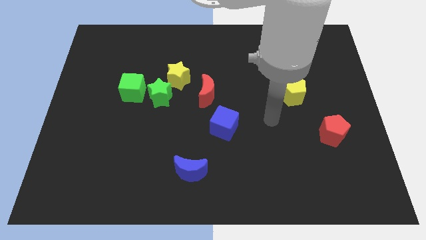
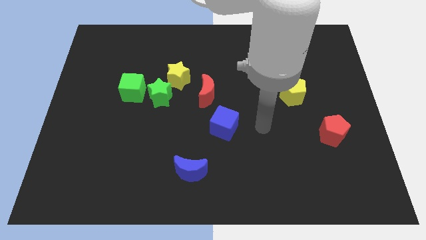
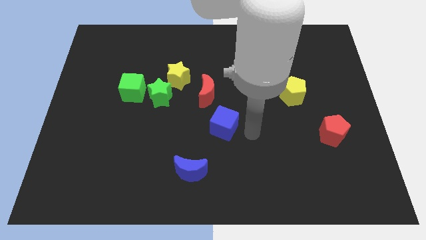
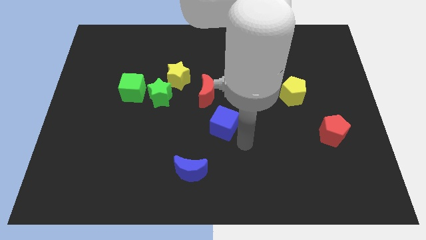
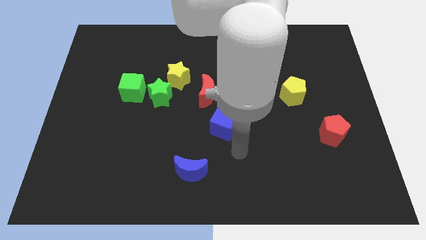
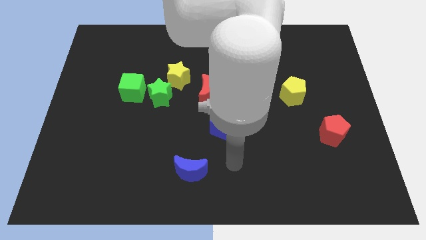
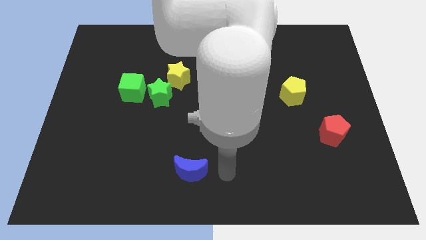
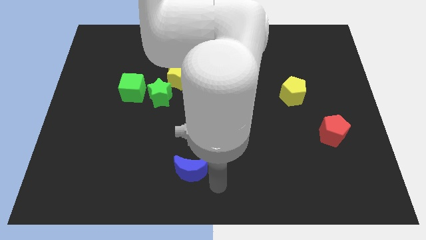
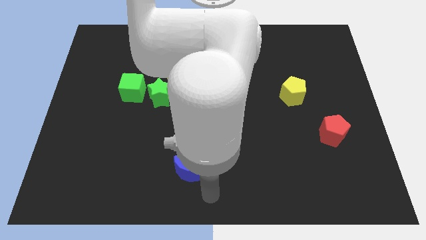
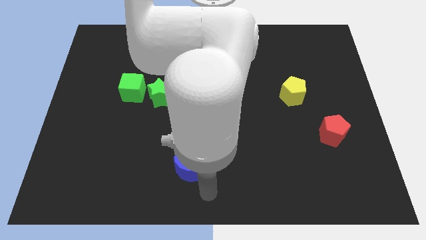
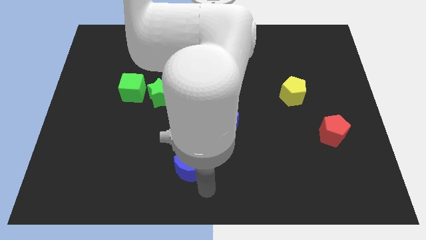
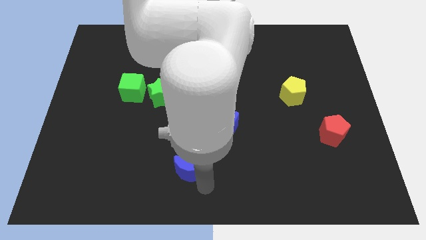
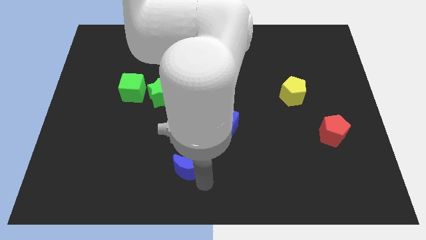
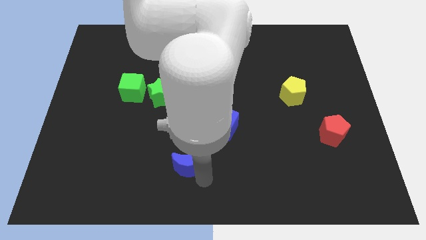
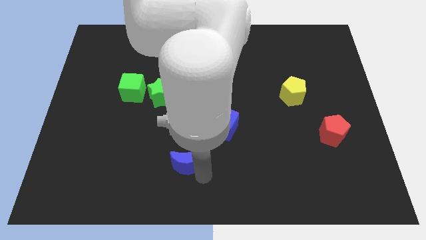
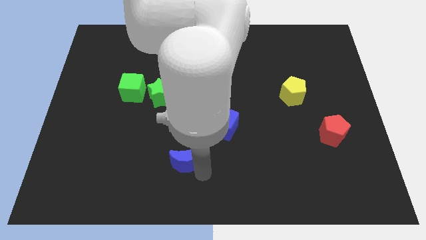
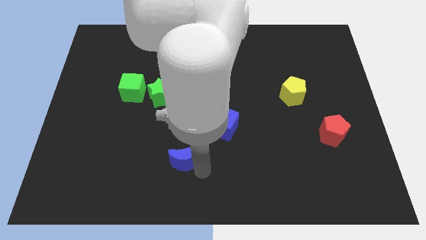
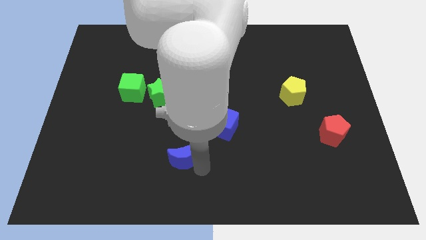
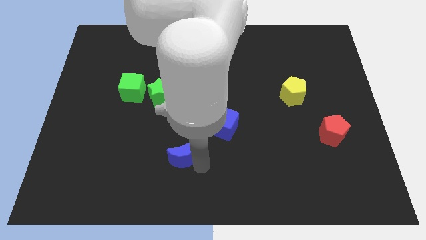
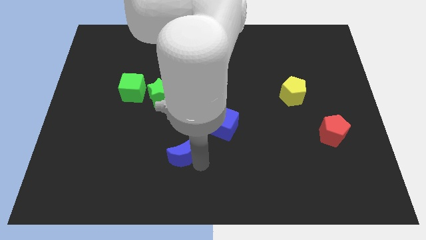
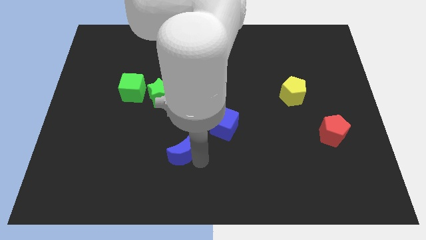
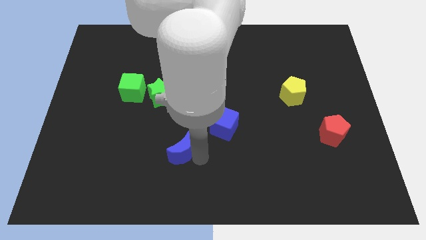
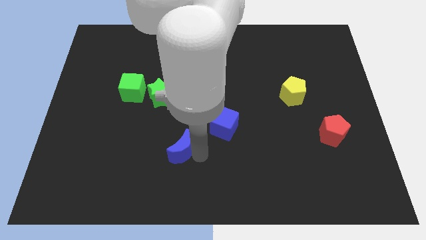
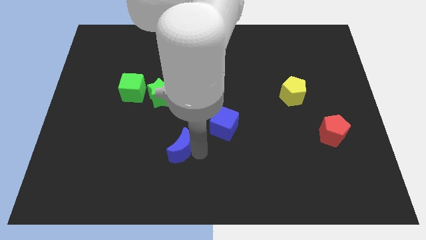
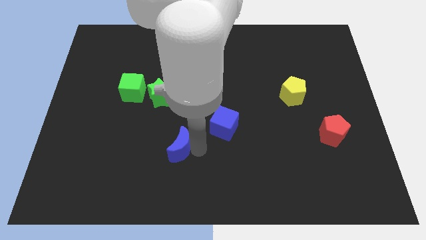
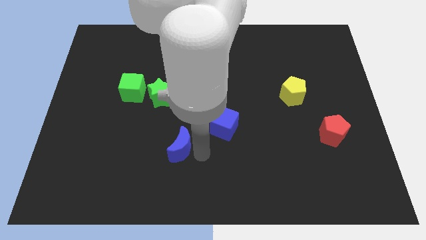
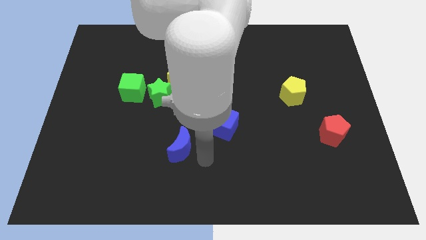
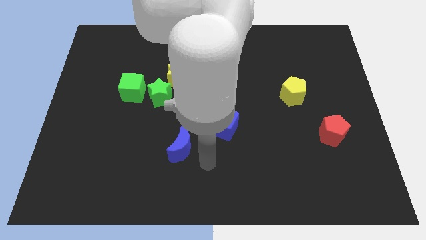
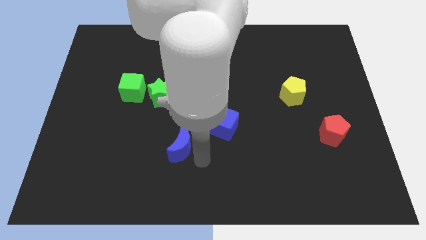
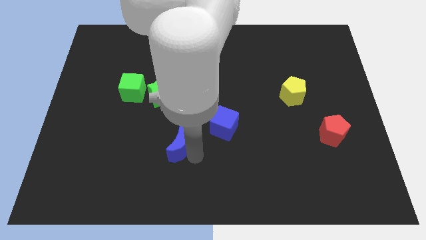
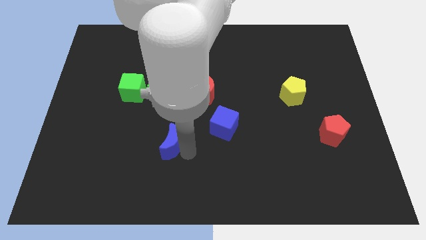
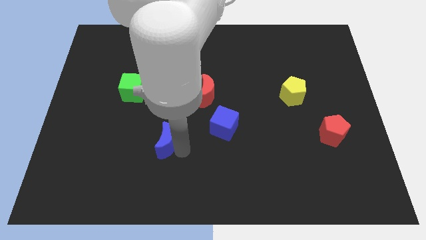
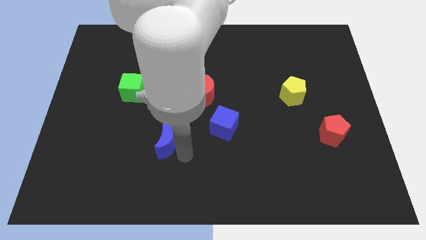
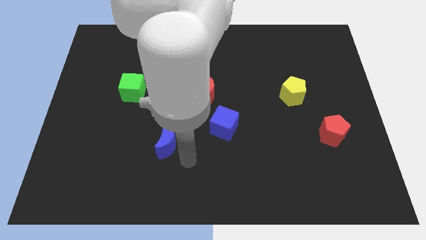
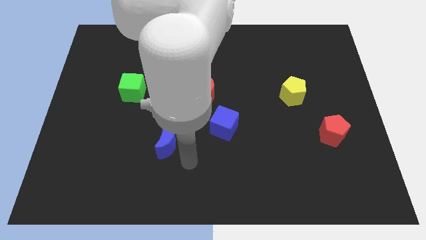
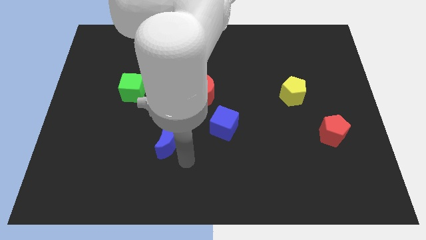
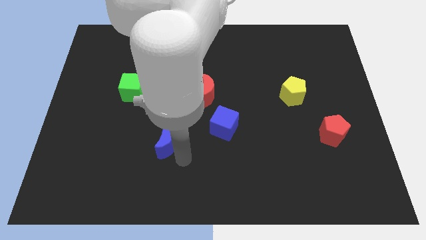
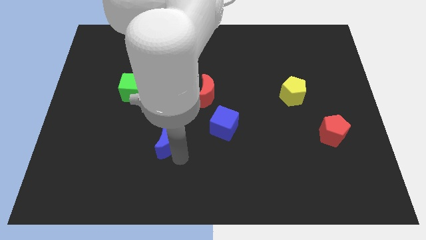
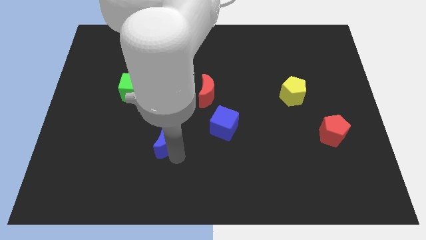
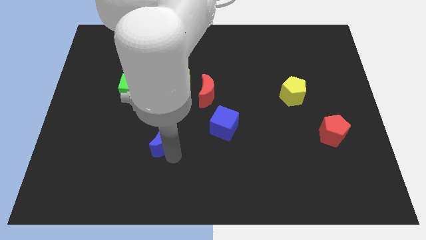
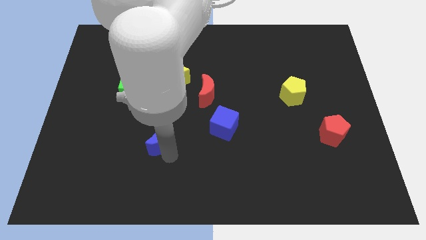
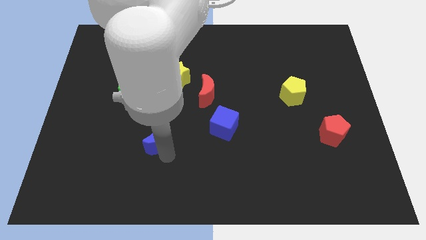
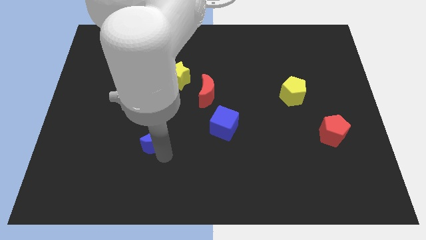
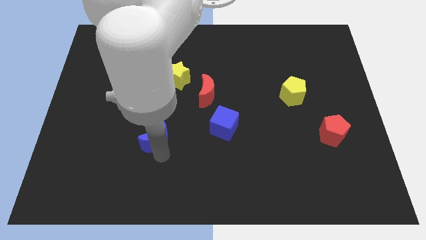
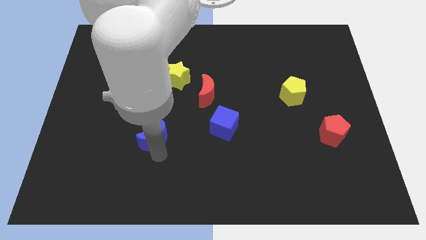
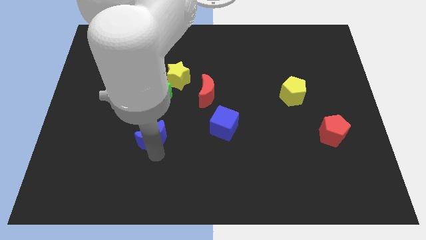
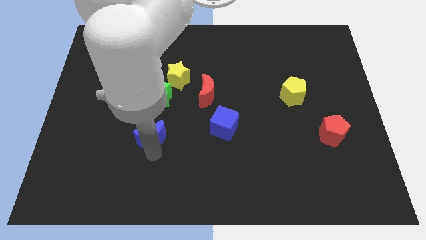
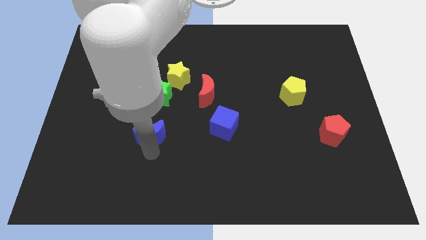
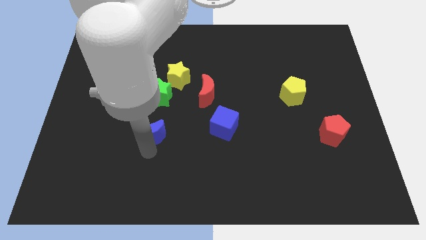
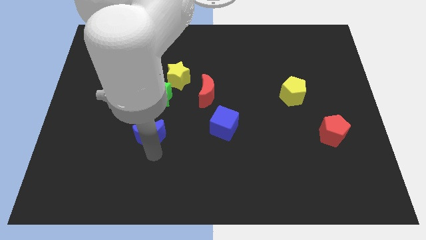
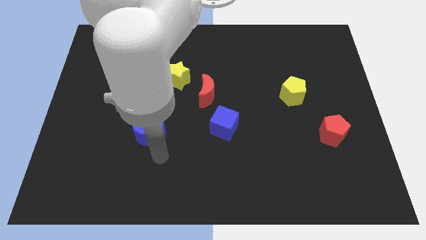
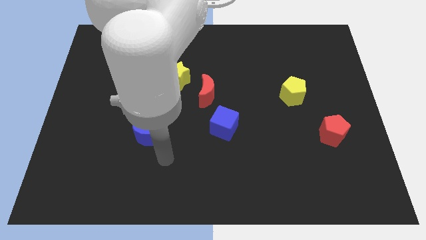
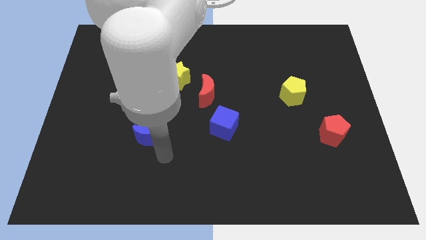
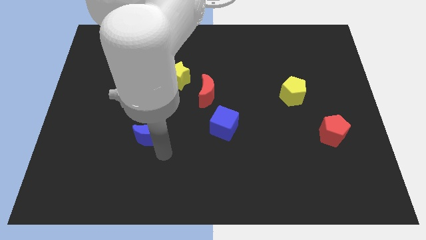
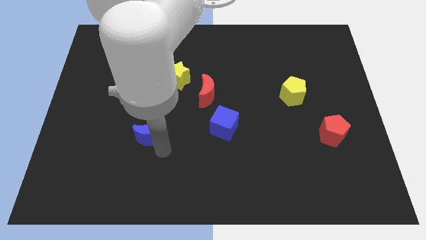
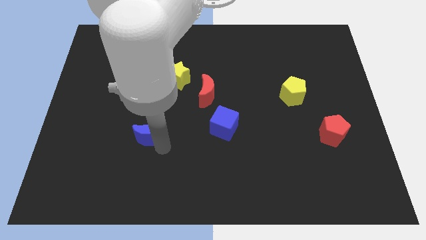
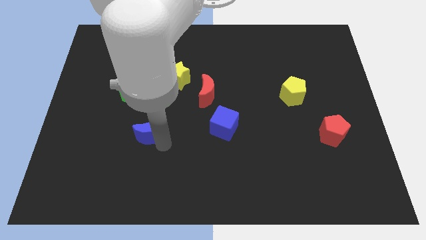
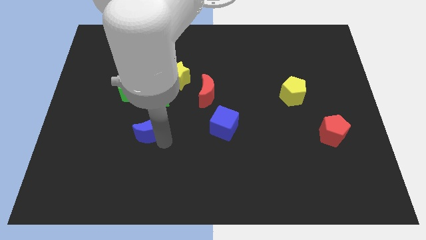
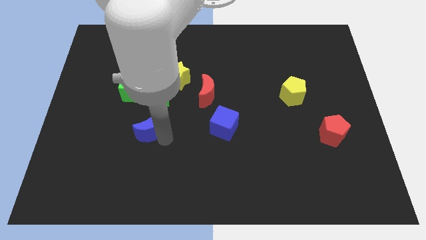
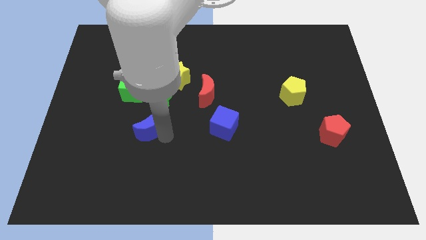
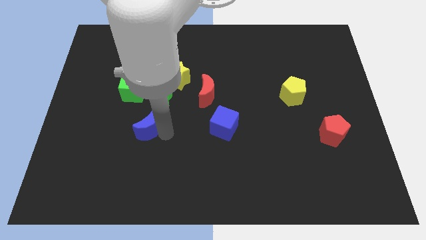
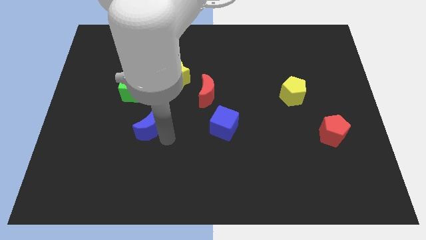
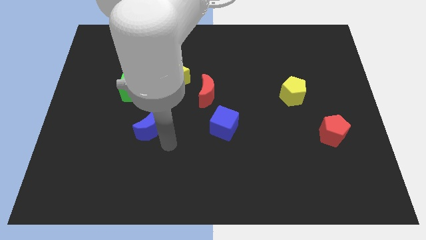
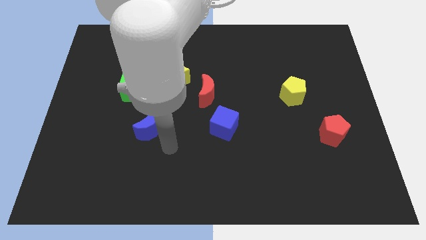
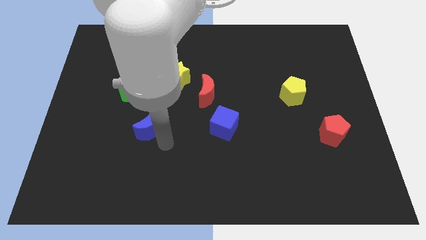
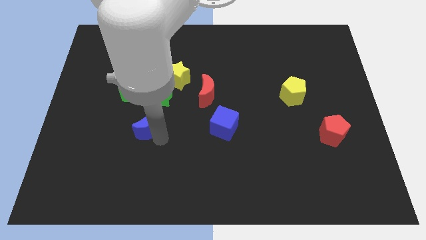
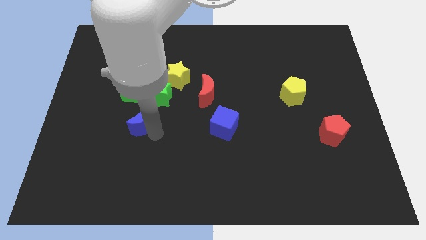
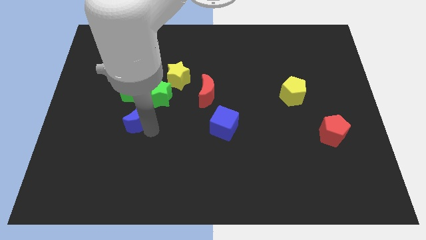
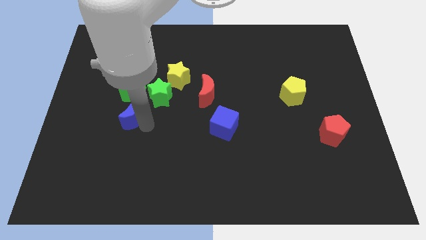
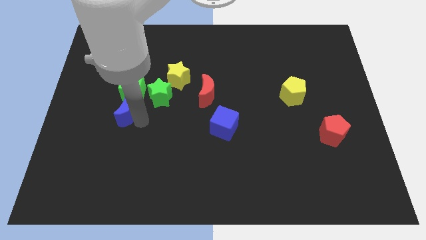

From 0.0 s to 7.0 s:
slide the blue moon upwards and left

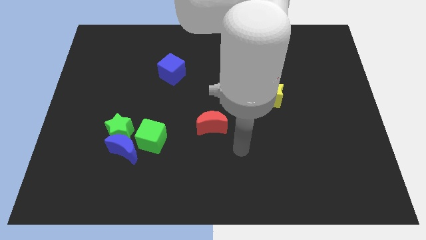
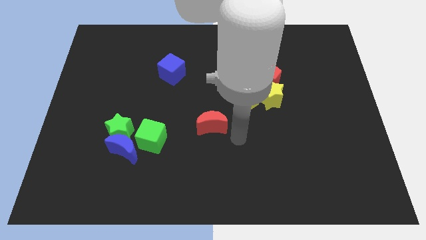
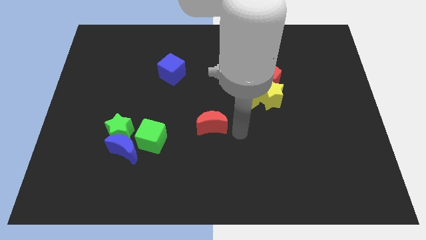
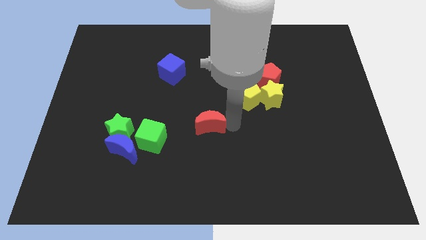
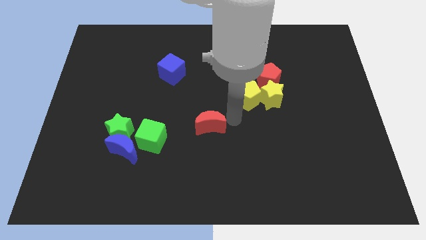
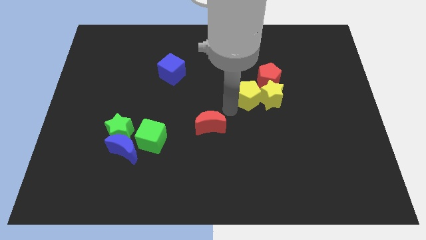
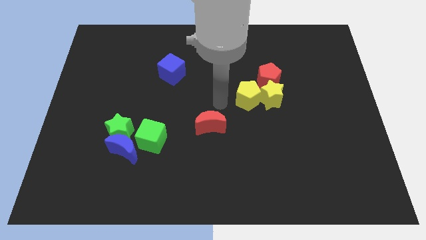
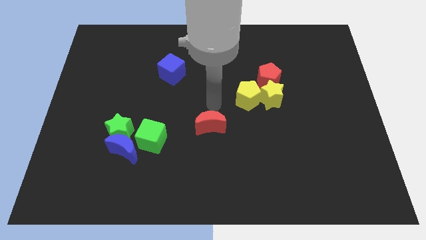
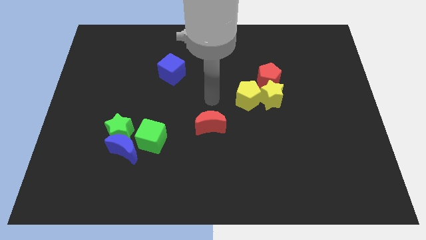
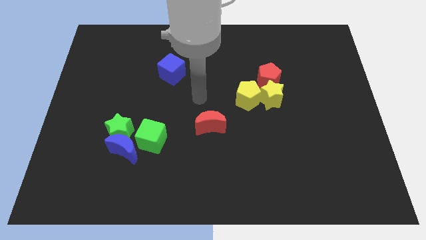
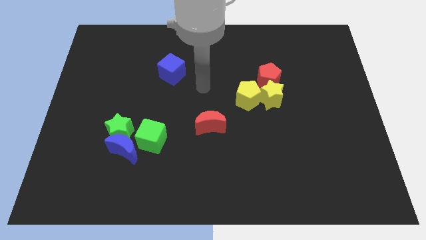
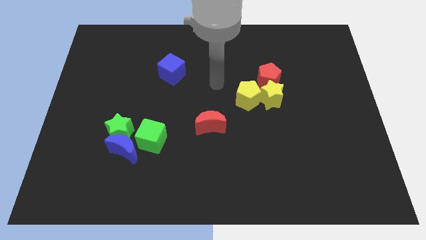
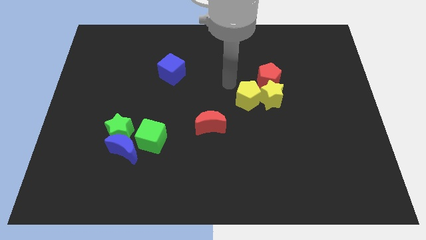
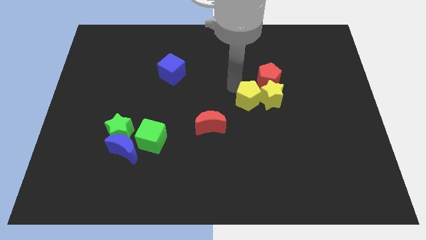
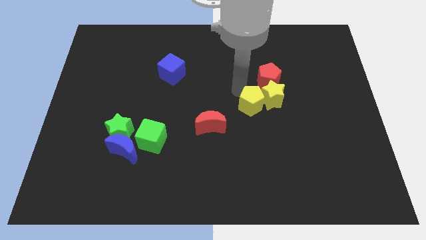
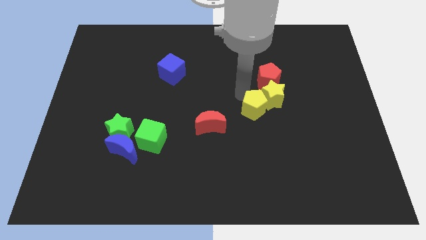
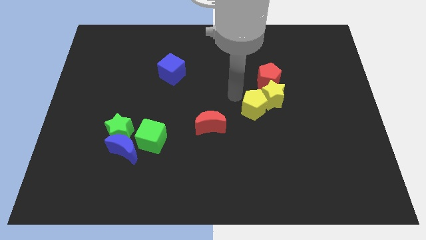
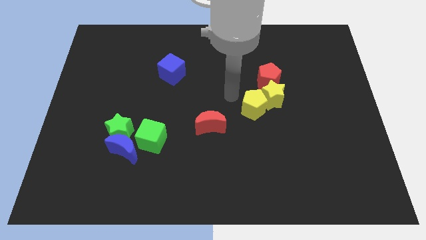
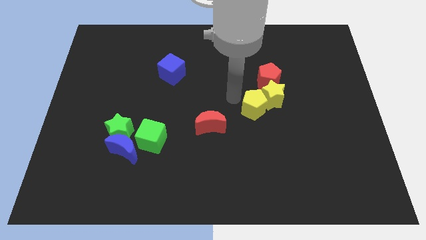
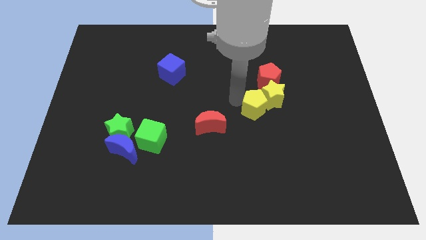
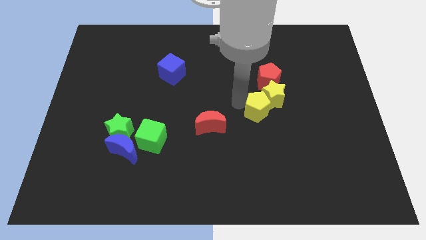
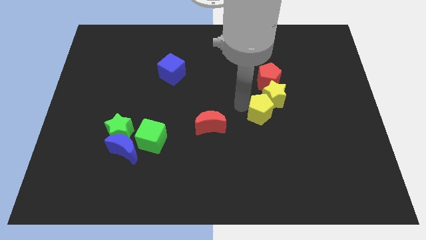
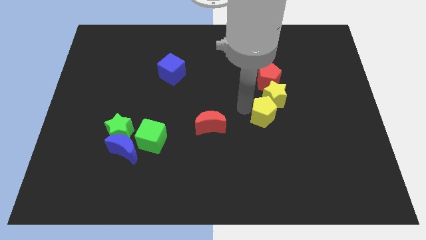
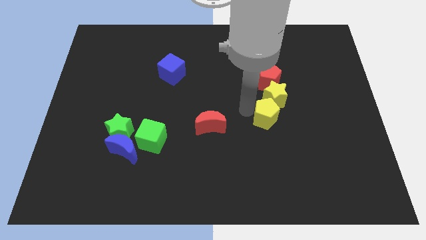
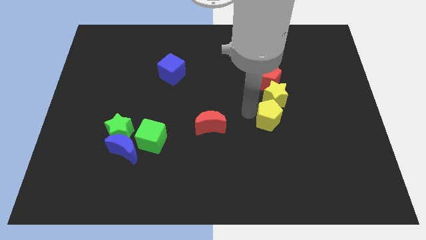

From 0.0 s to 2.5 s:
slightly slide the yellow pentagon down and to the right diagonally
